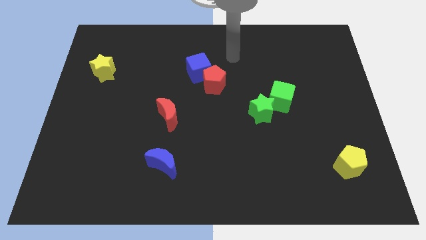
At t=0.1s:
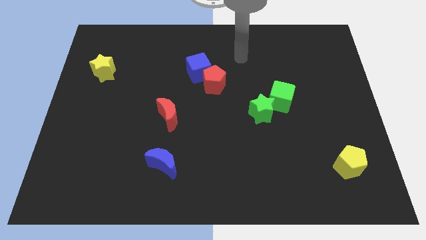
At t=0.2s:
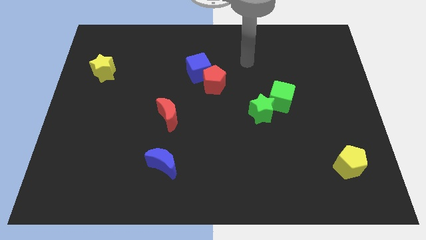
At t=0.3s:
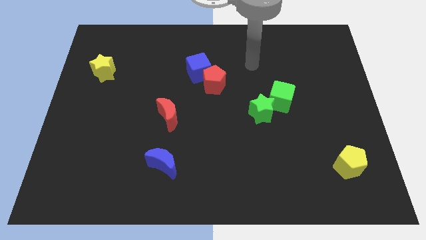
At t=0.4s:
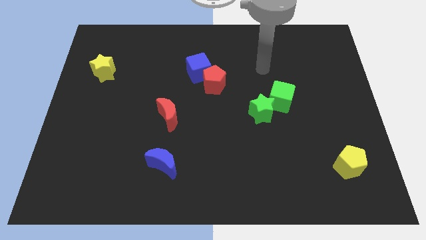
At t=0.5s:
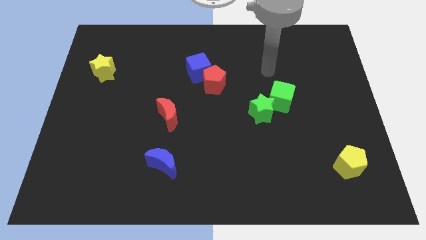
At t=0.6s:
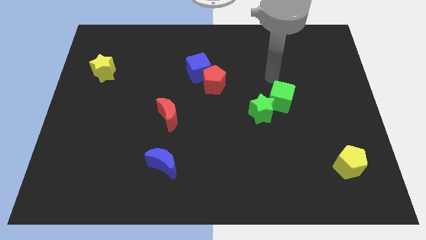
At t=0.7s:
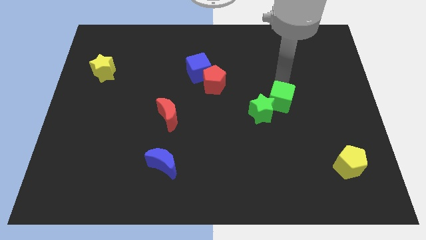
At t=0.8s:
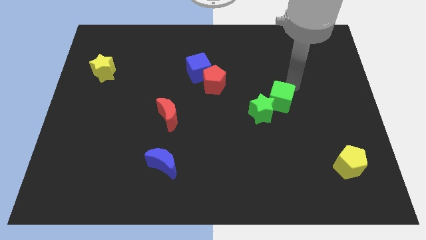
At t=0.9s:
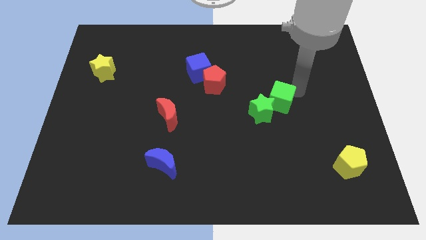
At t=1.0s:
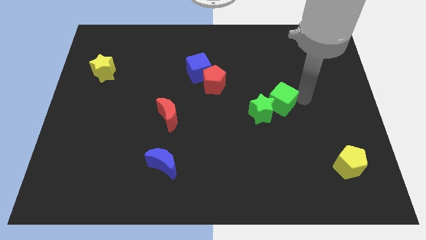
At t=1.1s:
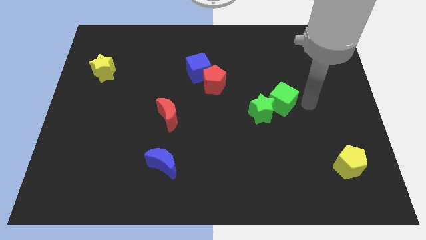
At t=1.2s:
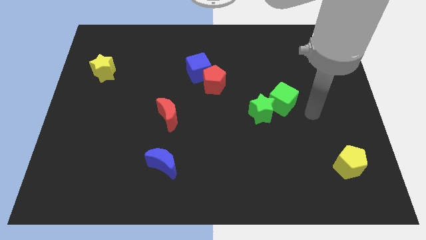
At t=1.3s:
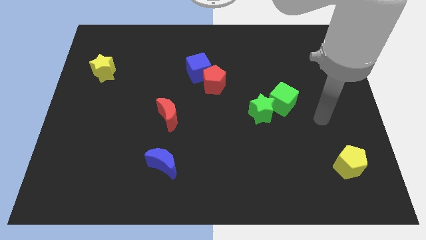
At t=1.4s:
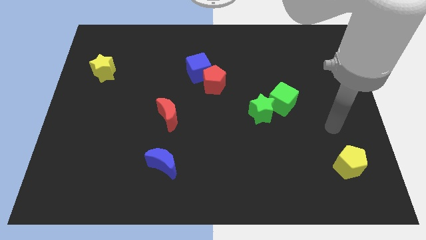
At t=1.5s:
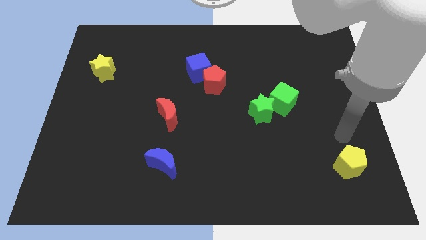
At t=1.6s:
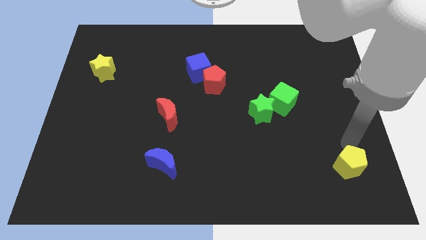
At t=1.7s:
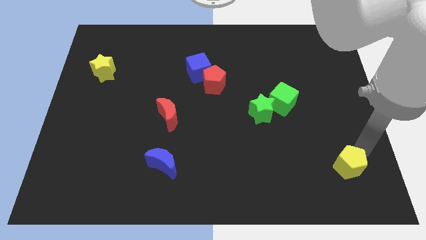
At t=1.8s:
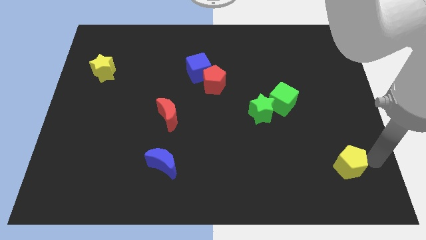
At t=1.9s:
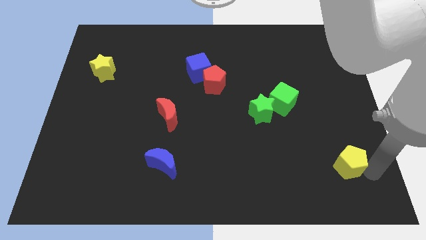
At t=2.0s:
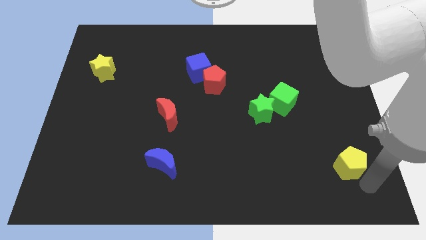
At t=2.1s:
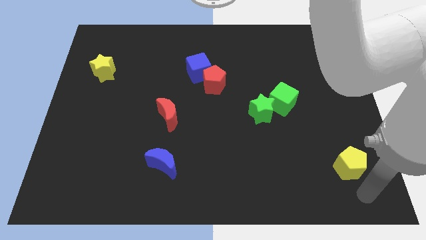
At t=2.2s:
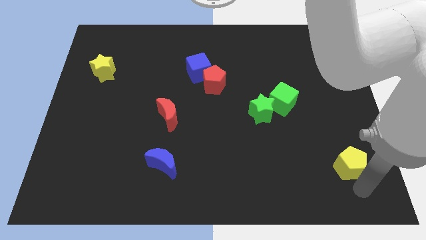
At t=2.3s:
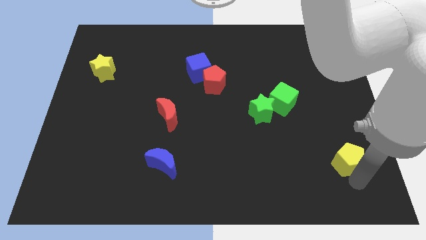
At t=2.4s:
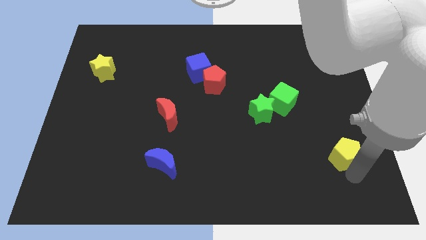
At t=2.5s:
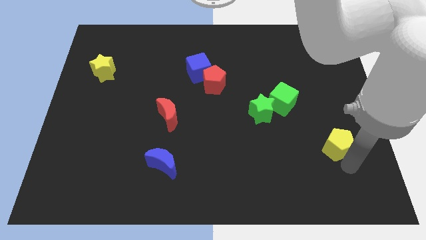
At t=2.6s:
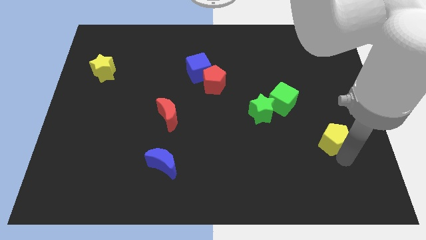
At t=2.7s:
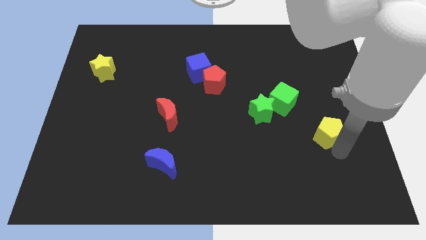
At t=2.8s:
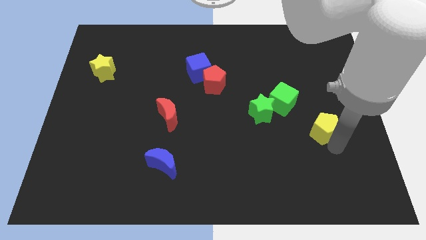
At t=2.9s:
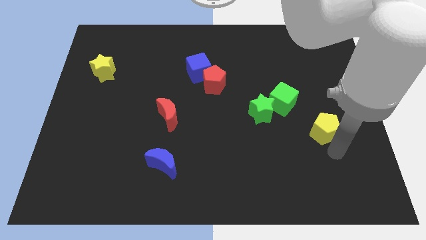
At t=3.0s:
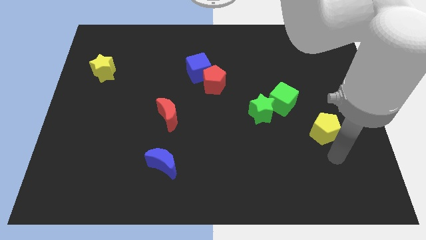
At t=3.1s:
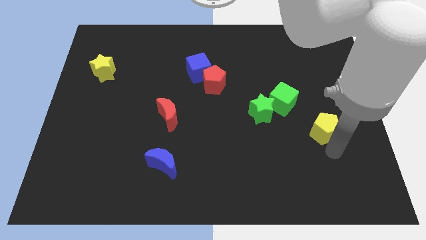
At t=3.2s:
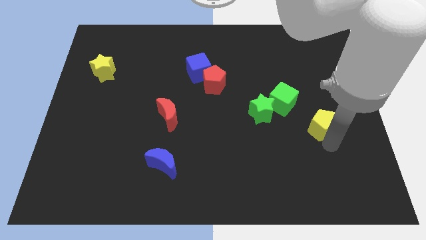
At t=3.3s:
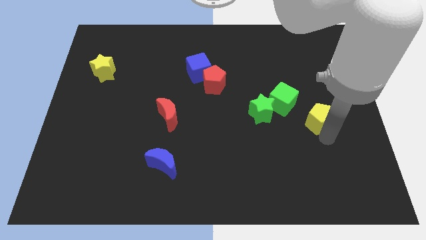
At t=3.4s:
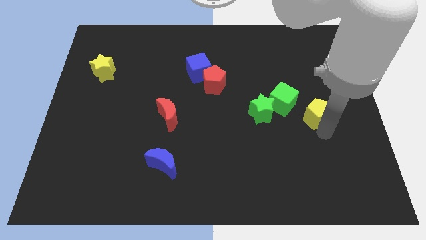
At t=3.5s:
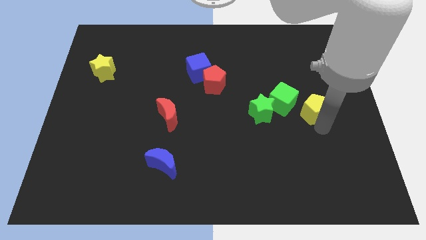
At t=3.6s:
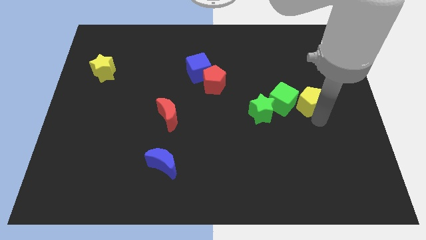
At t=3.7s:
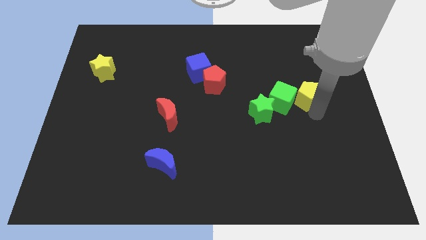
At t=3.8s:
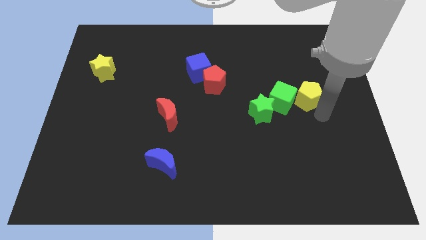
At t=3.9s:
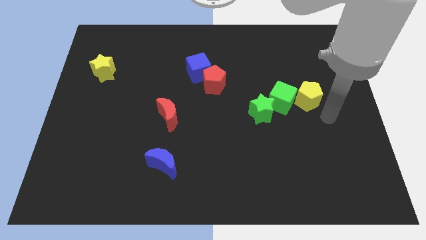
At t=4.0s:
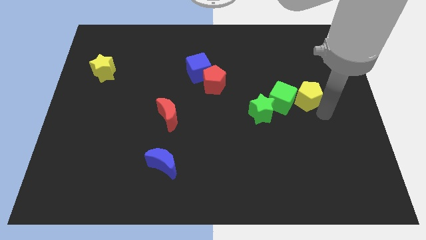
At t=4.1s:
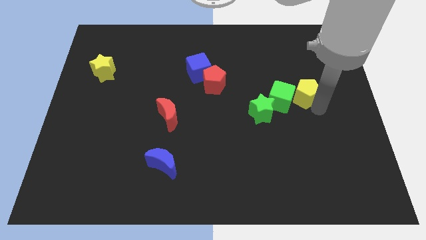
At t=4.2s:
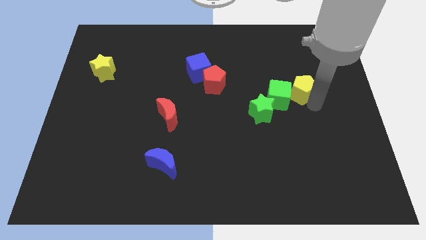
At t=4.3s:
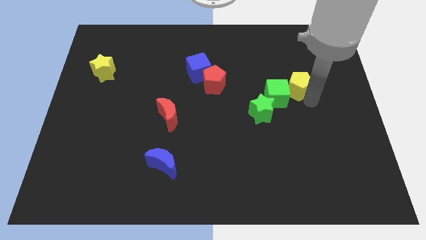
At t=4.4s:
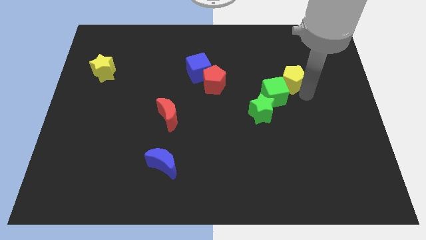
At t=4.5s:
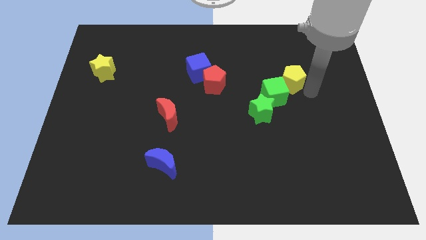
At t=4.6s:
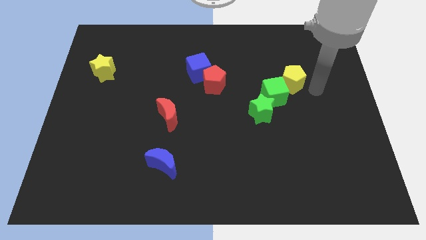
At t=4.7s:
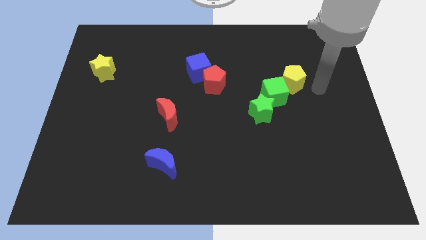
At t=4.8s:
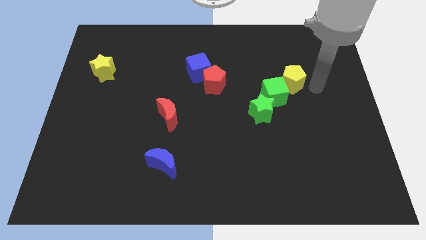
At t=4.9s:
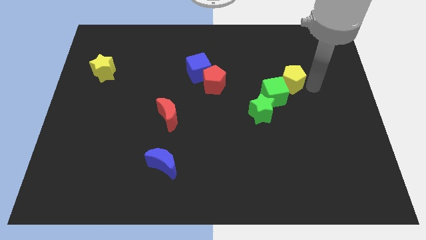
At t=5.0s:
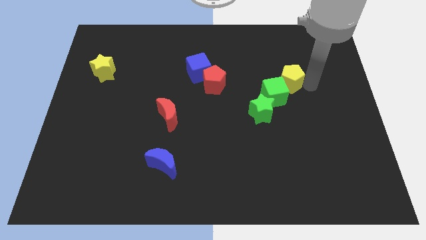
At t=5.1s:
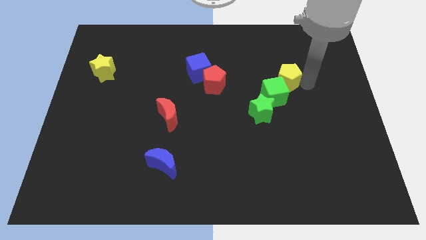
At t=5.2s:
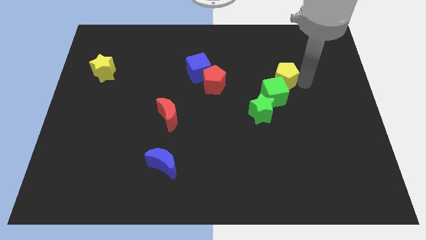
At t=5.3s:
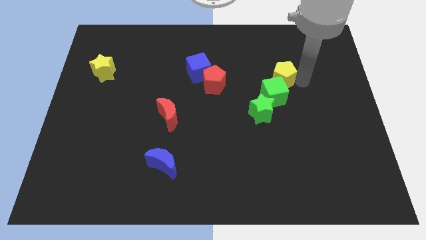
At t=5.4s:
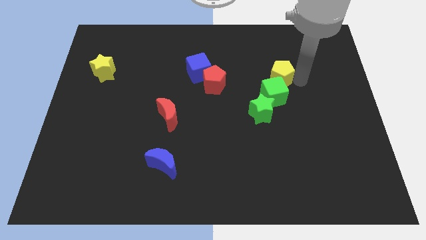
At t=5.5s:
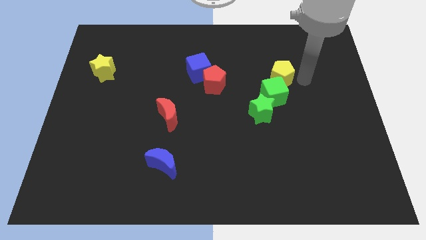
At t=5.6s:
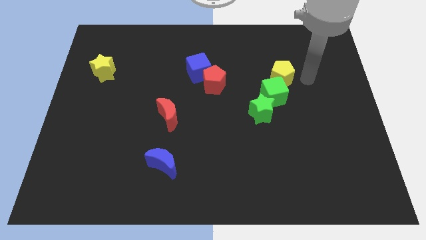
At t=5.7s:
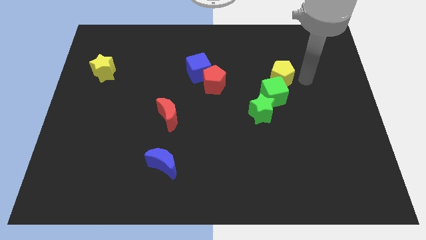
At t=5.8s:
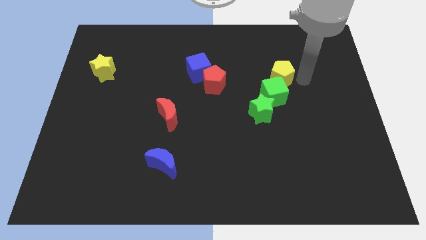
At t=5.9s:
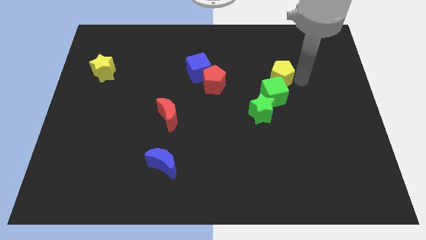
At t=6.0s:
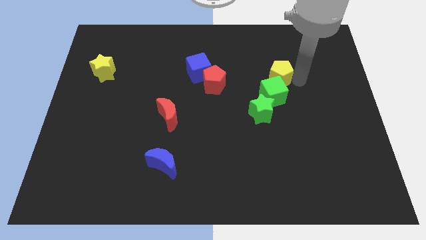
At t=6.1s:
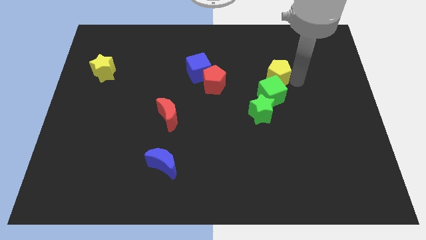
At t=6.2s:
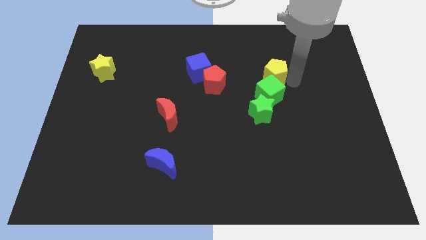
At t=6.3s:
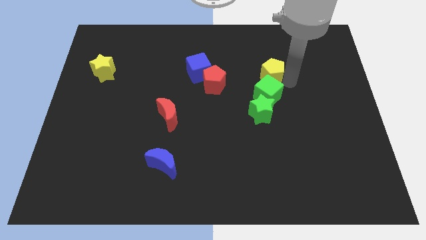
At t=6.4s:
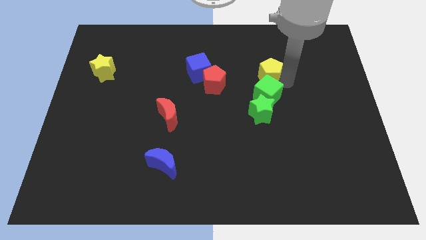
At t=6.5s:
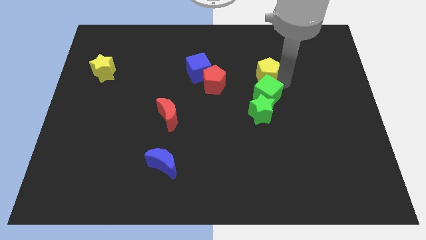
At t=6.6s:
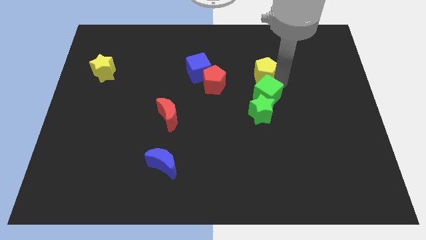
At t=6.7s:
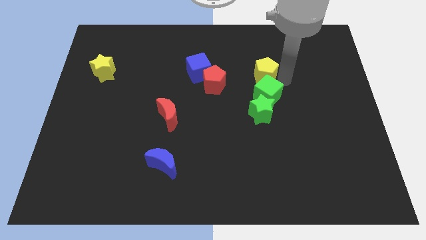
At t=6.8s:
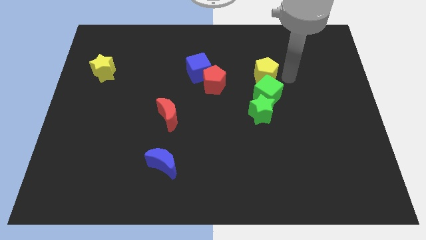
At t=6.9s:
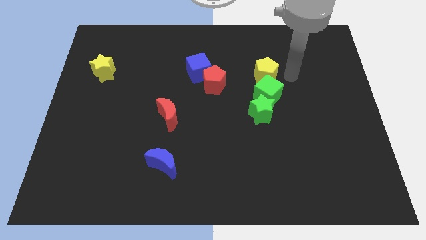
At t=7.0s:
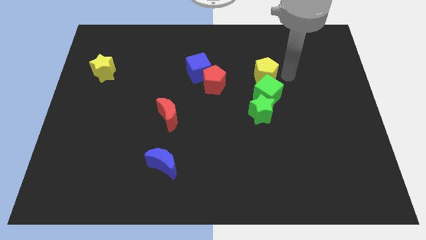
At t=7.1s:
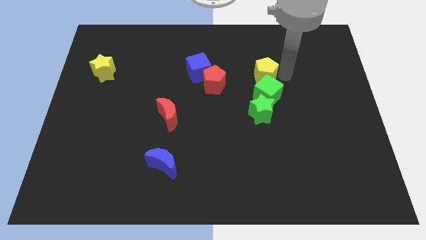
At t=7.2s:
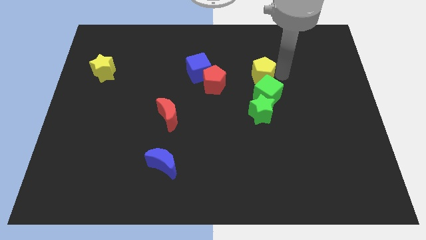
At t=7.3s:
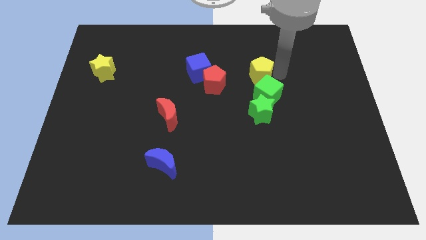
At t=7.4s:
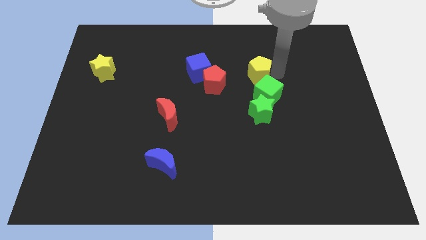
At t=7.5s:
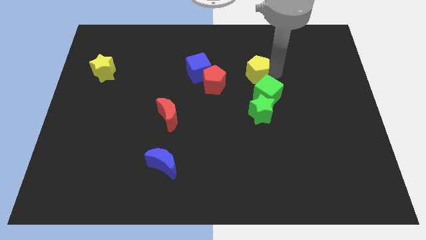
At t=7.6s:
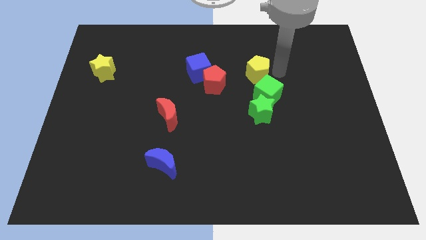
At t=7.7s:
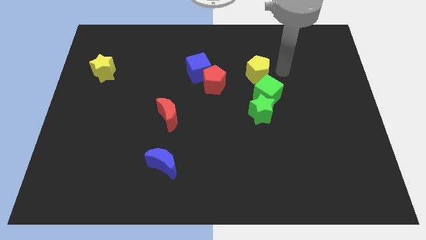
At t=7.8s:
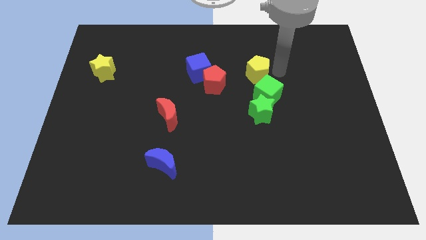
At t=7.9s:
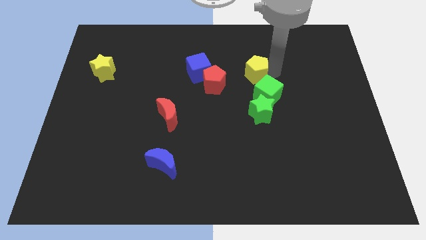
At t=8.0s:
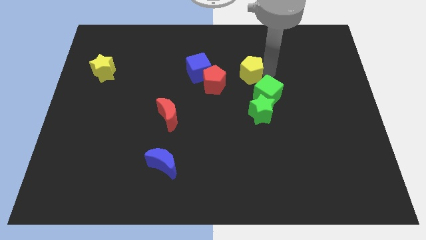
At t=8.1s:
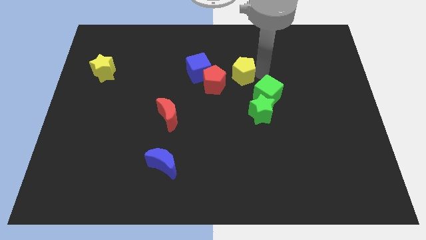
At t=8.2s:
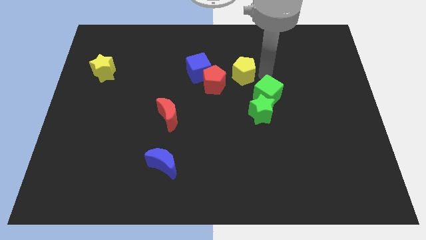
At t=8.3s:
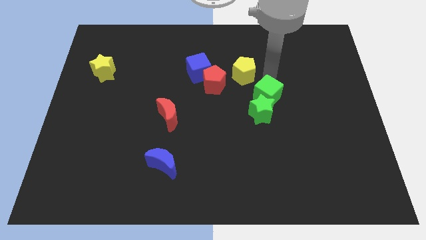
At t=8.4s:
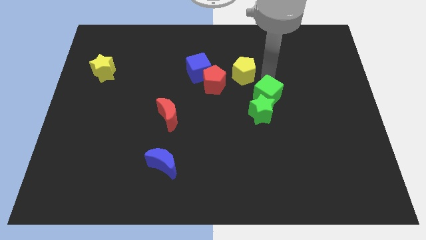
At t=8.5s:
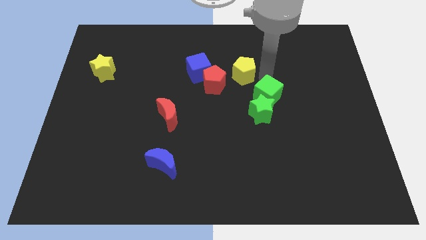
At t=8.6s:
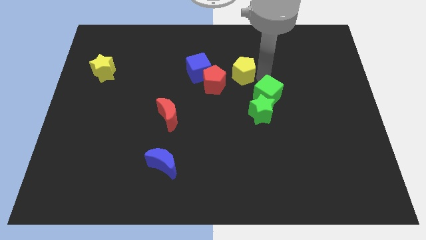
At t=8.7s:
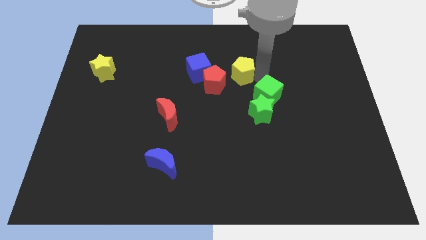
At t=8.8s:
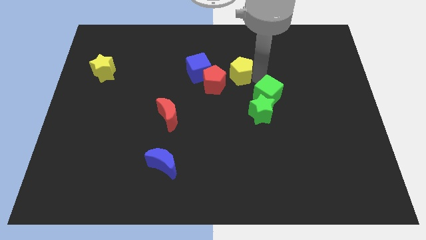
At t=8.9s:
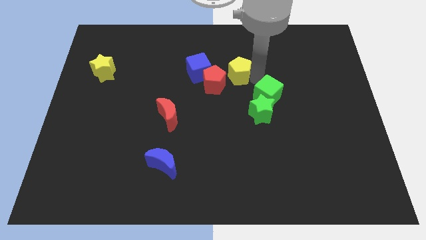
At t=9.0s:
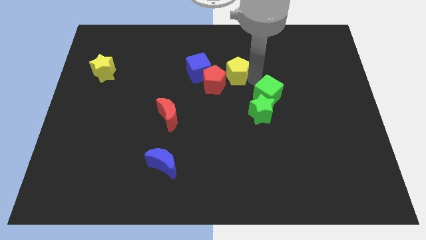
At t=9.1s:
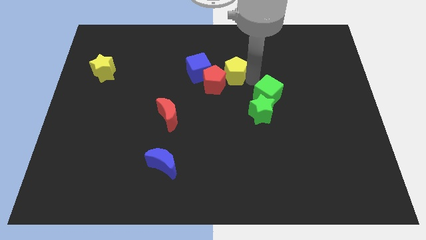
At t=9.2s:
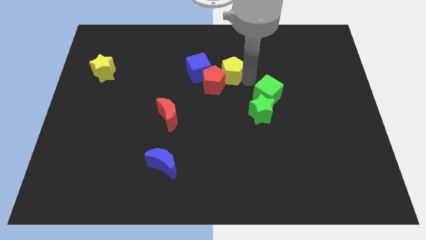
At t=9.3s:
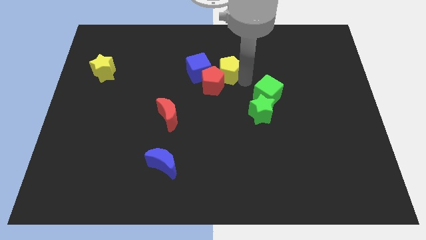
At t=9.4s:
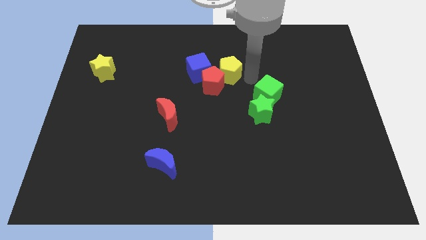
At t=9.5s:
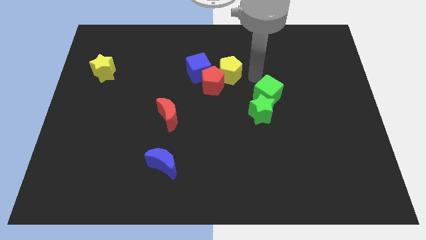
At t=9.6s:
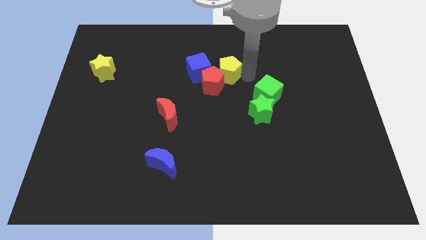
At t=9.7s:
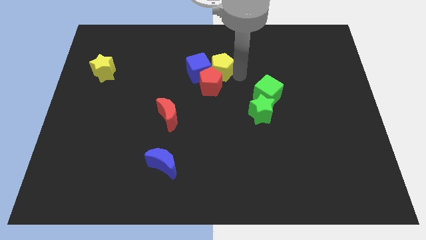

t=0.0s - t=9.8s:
slide the yellow pentagon next to the blue cube
